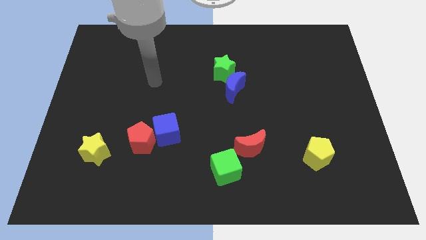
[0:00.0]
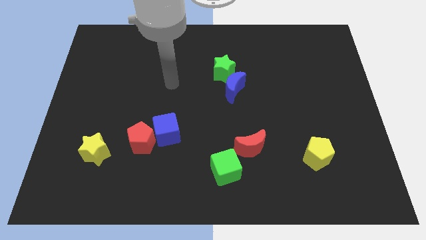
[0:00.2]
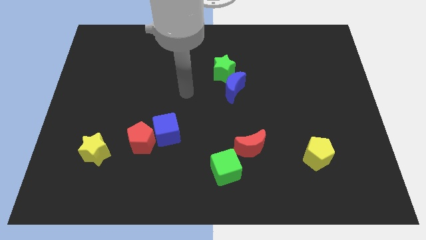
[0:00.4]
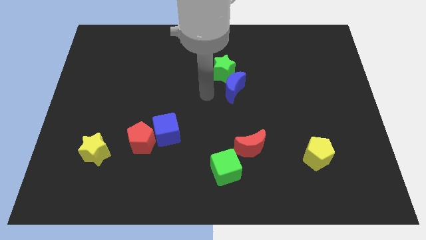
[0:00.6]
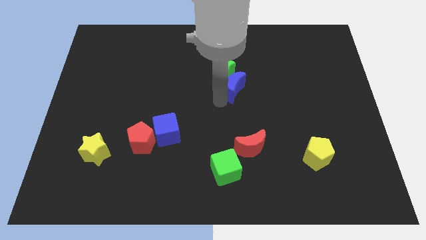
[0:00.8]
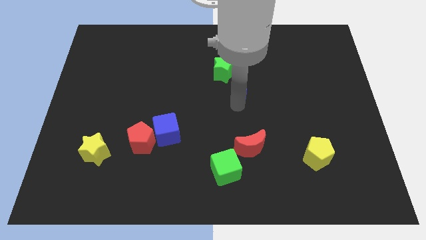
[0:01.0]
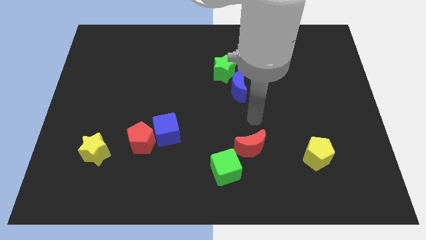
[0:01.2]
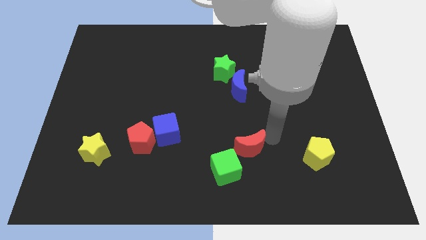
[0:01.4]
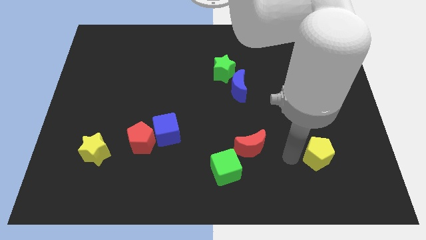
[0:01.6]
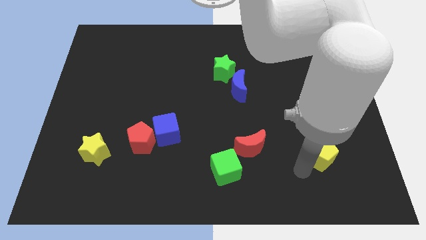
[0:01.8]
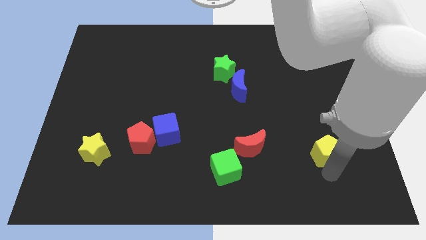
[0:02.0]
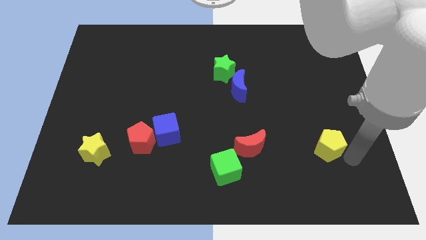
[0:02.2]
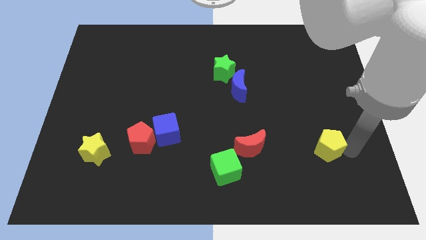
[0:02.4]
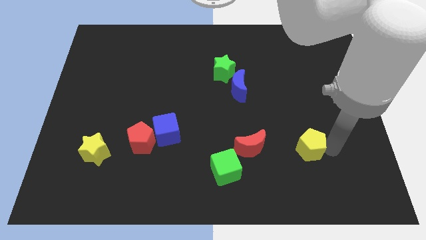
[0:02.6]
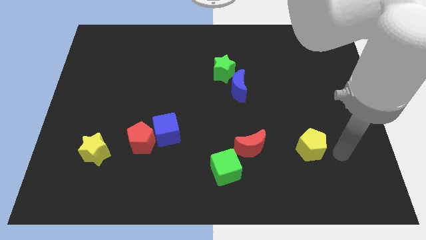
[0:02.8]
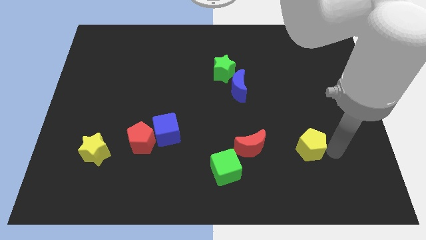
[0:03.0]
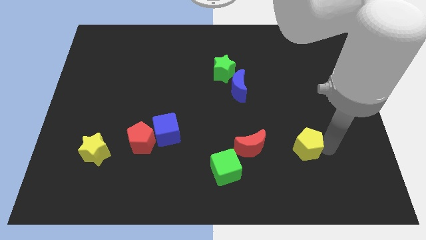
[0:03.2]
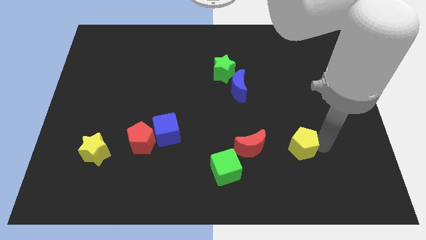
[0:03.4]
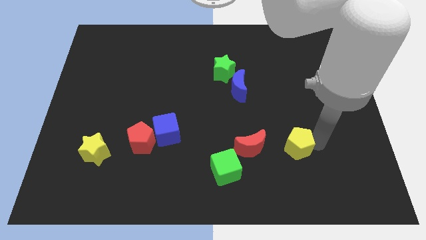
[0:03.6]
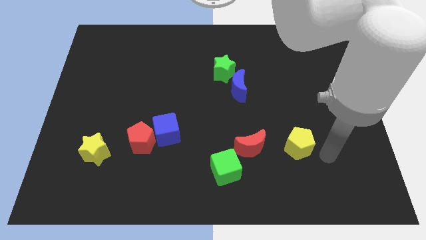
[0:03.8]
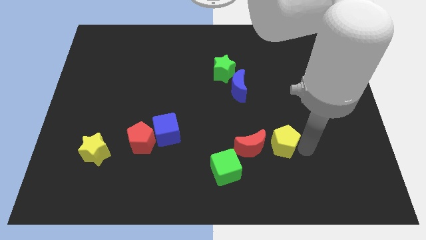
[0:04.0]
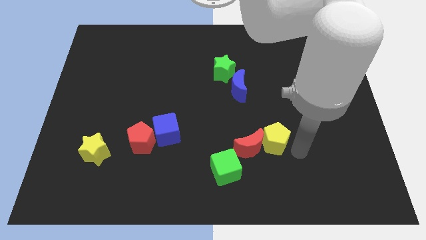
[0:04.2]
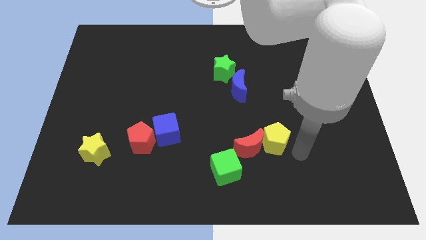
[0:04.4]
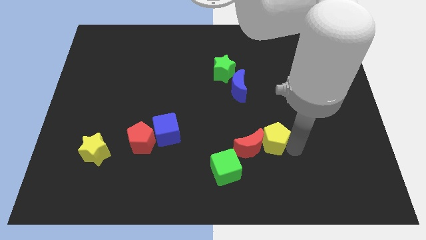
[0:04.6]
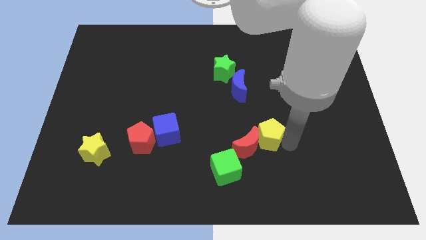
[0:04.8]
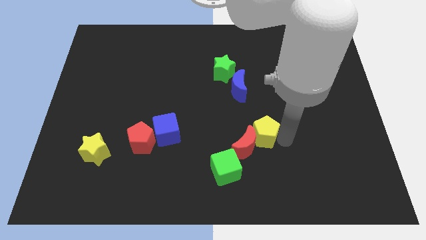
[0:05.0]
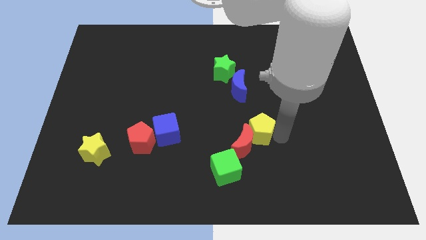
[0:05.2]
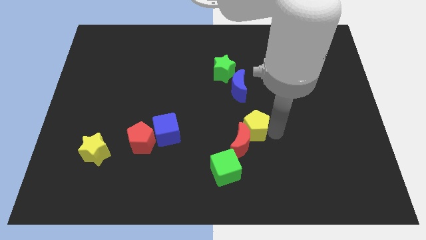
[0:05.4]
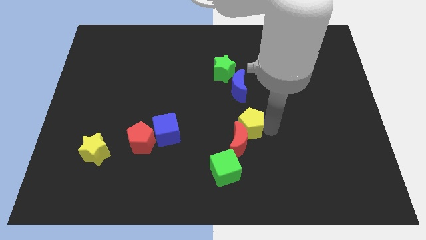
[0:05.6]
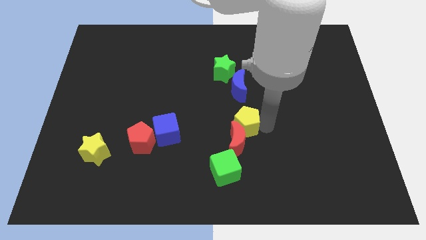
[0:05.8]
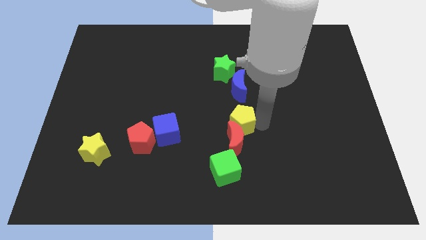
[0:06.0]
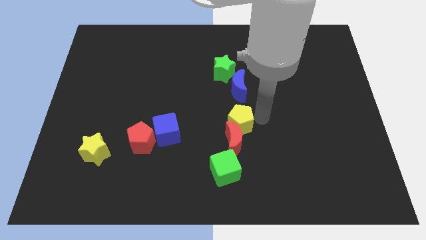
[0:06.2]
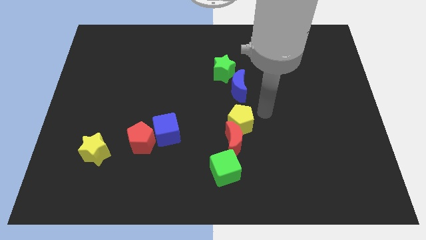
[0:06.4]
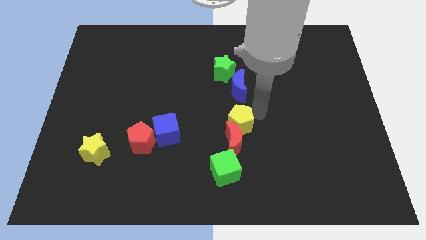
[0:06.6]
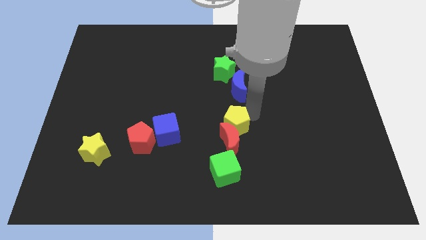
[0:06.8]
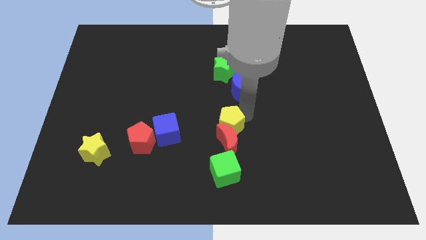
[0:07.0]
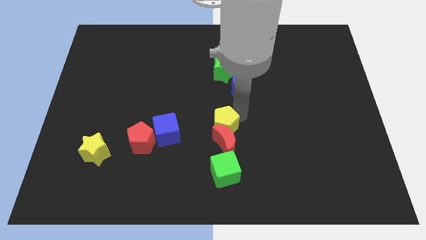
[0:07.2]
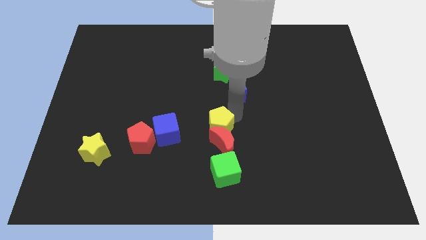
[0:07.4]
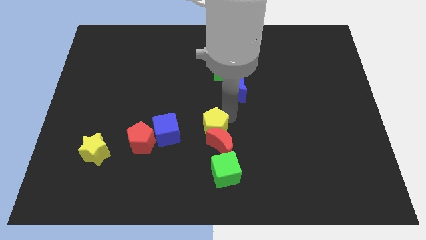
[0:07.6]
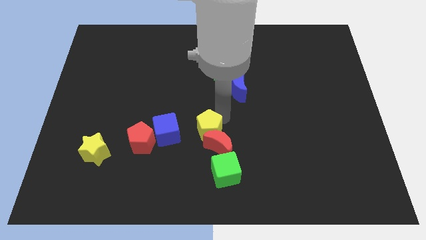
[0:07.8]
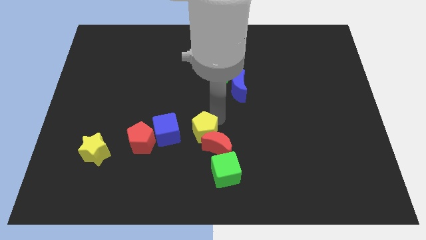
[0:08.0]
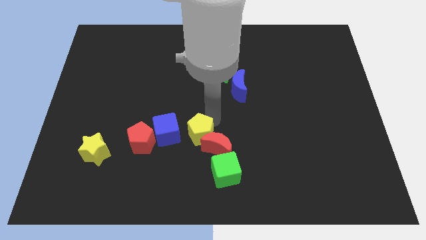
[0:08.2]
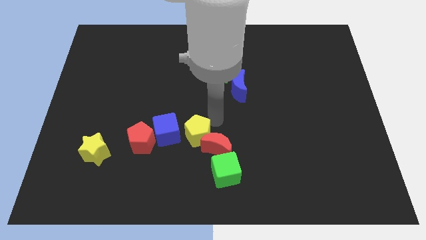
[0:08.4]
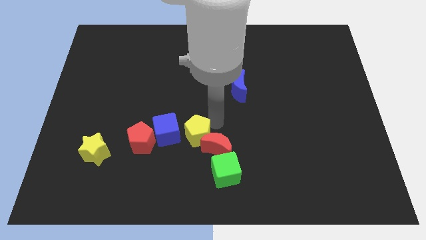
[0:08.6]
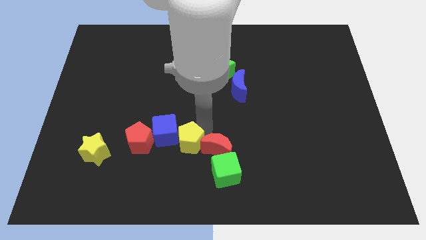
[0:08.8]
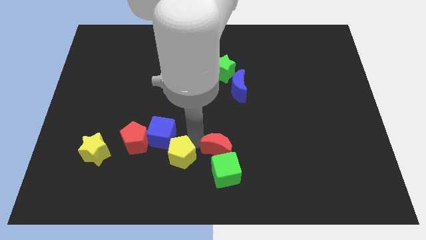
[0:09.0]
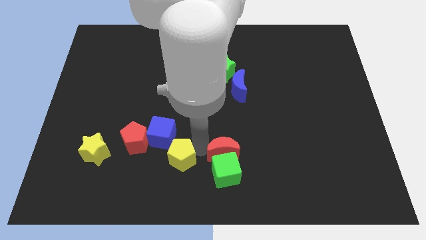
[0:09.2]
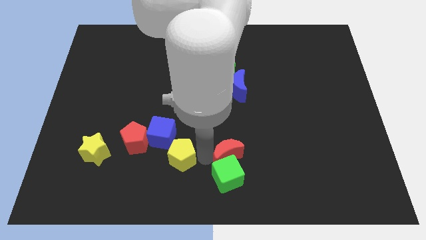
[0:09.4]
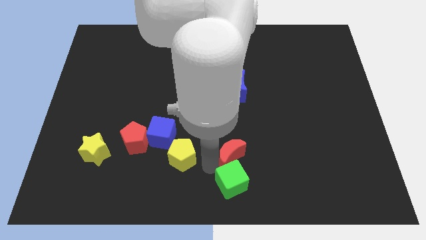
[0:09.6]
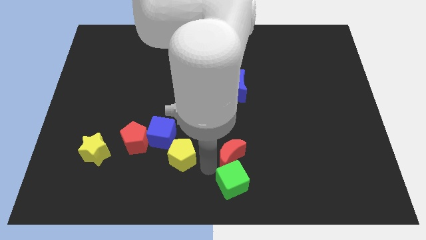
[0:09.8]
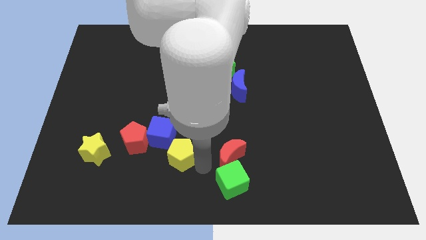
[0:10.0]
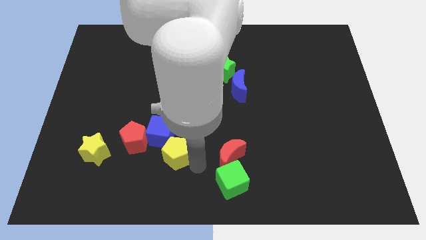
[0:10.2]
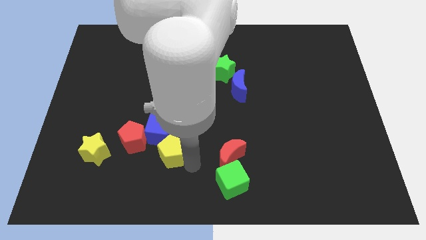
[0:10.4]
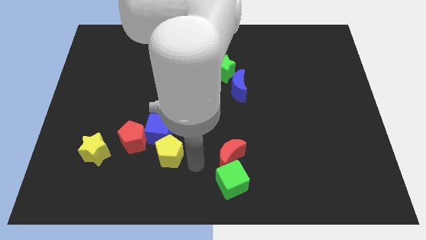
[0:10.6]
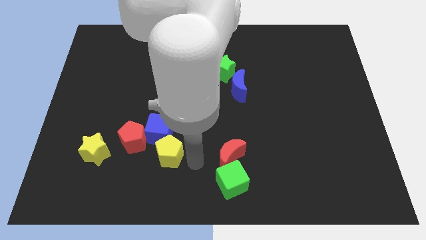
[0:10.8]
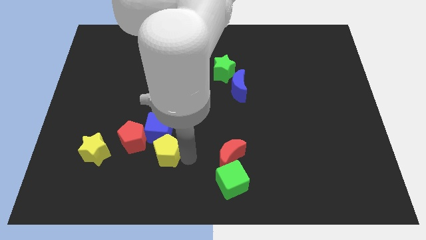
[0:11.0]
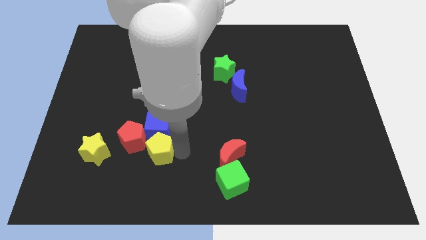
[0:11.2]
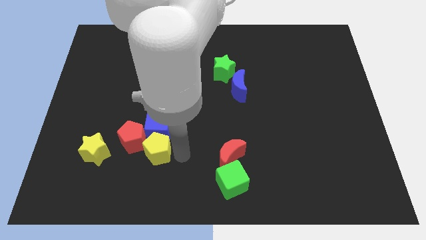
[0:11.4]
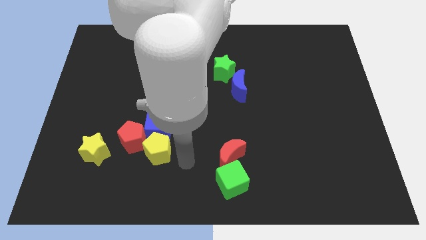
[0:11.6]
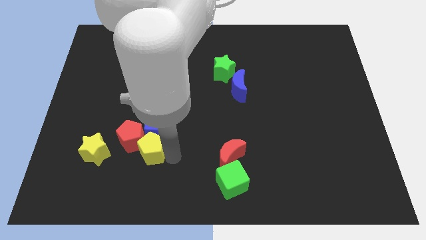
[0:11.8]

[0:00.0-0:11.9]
slide the yellow pentagon to the red pentagon

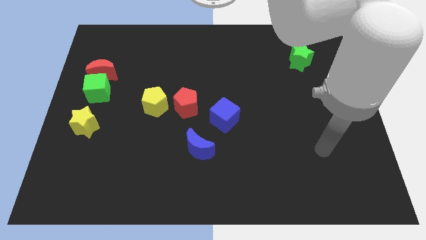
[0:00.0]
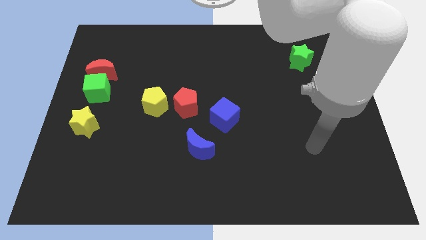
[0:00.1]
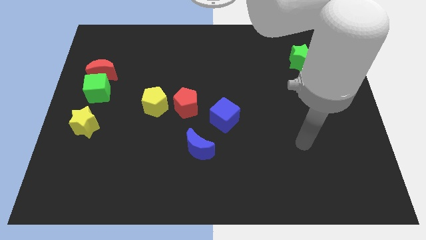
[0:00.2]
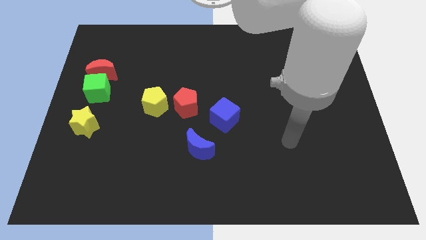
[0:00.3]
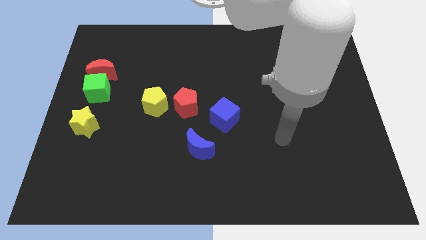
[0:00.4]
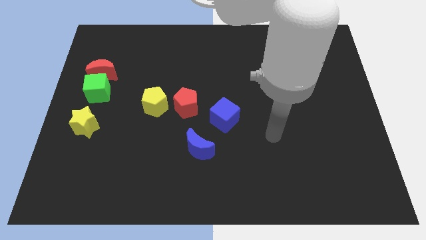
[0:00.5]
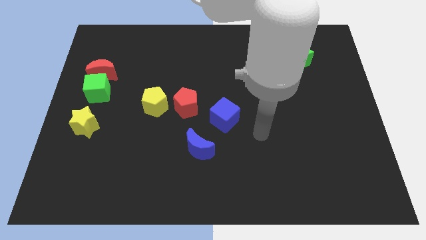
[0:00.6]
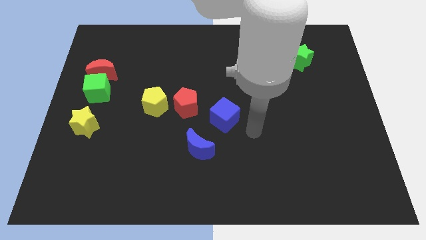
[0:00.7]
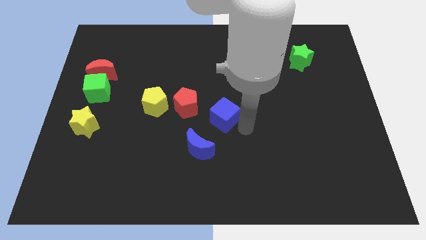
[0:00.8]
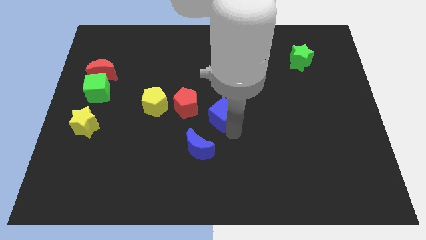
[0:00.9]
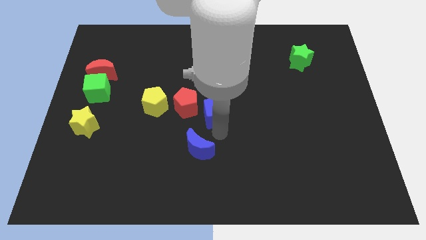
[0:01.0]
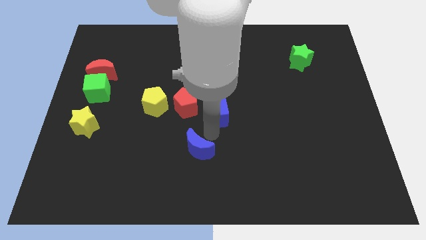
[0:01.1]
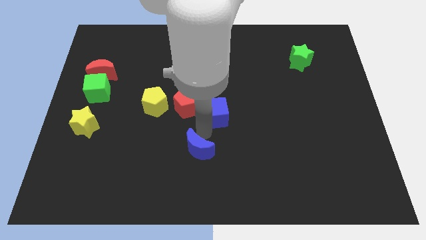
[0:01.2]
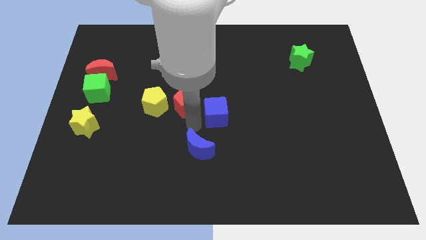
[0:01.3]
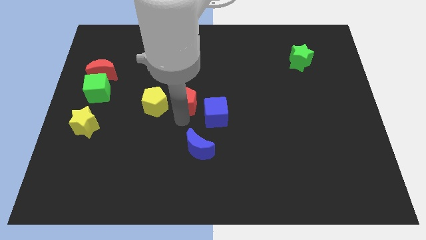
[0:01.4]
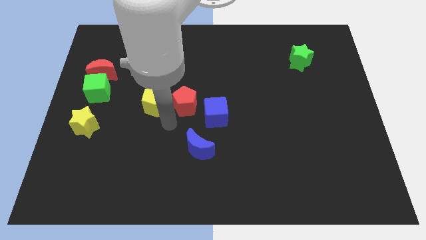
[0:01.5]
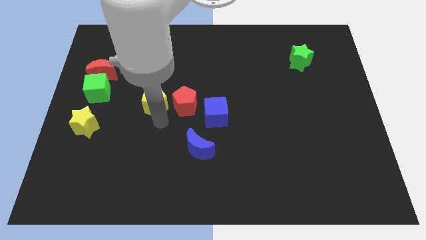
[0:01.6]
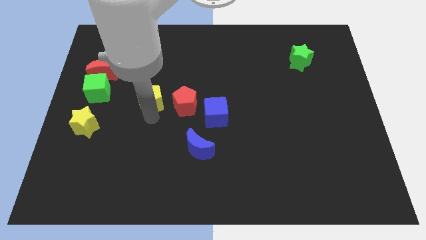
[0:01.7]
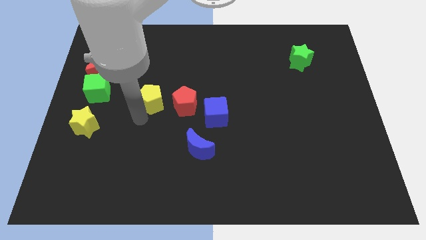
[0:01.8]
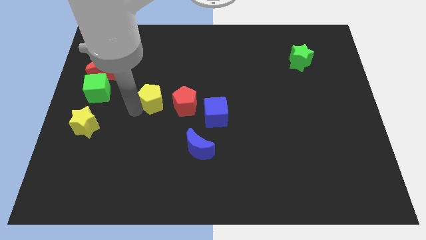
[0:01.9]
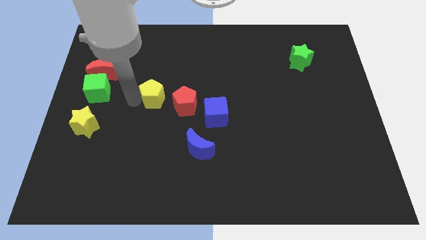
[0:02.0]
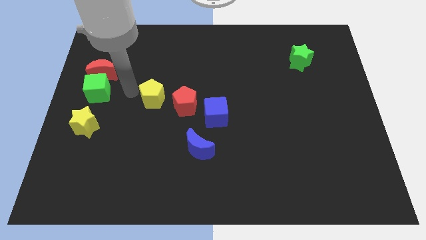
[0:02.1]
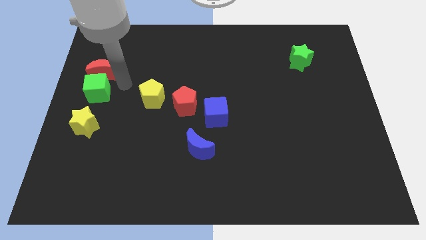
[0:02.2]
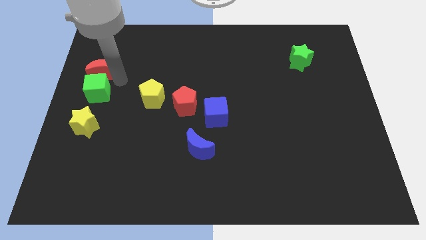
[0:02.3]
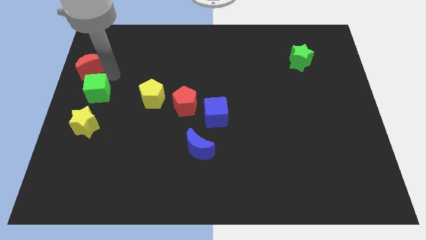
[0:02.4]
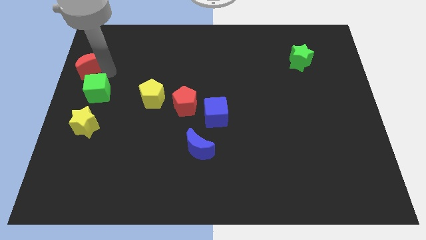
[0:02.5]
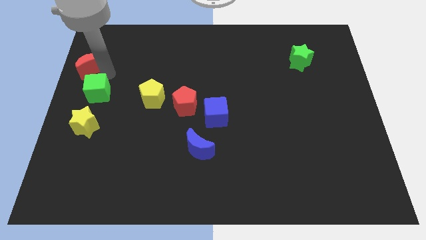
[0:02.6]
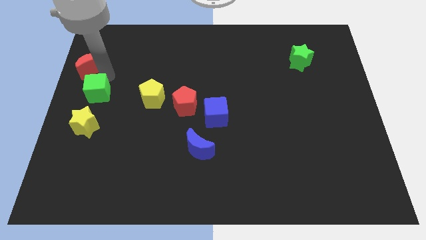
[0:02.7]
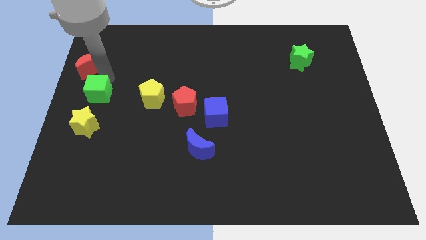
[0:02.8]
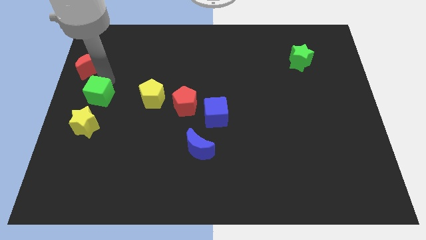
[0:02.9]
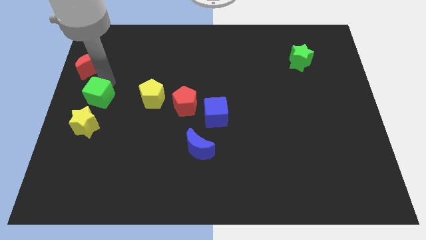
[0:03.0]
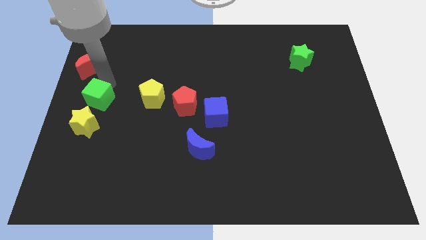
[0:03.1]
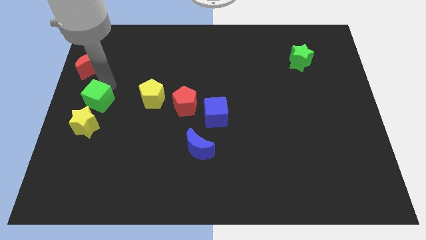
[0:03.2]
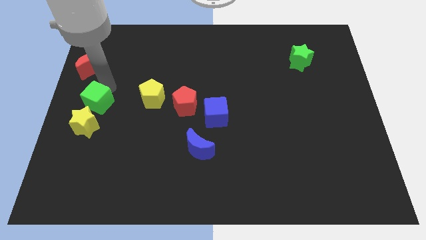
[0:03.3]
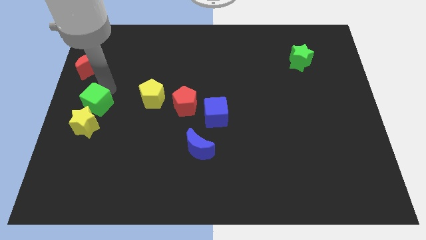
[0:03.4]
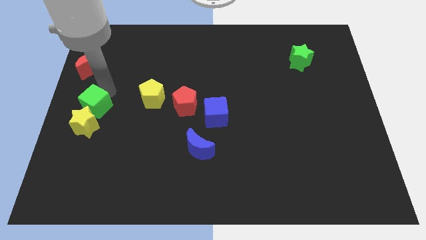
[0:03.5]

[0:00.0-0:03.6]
slide the green cube towards the yellow star
